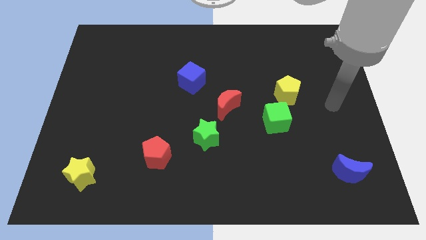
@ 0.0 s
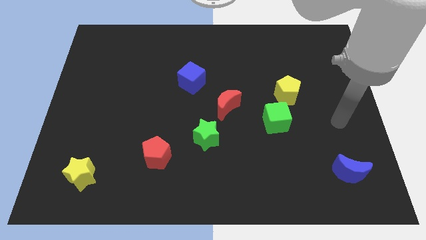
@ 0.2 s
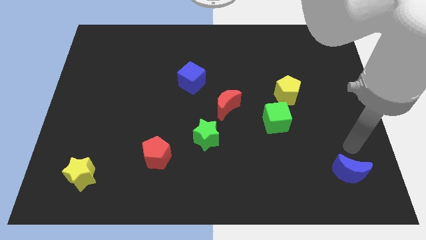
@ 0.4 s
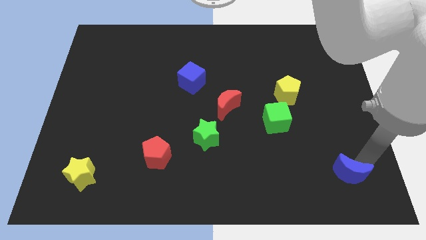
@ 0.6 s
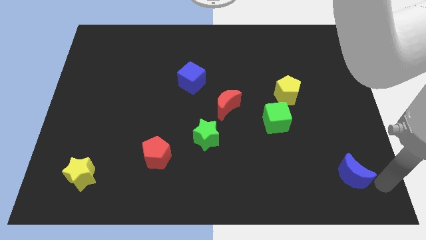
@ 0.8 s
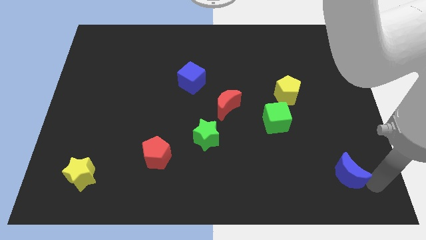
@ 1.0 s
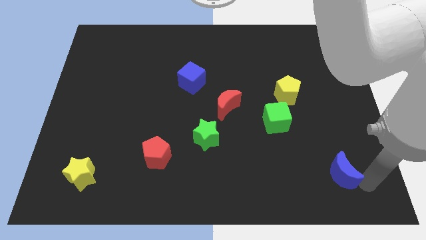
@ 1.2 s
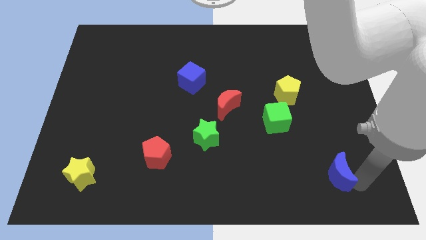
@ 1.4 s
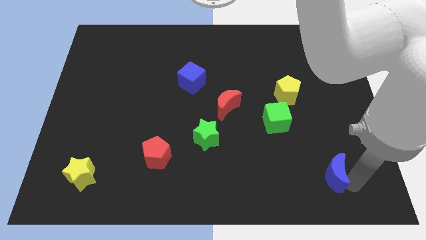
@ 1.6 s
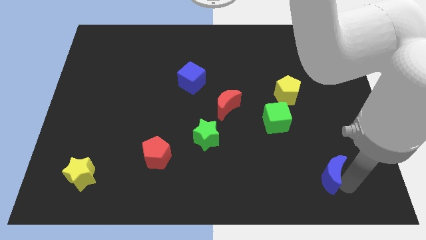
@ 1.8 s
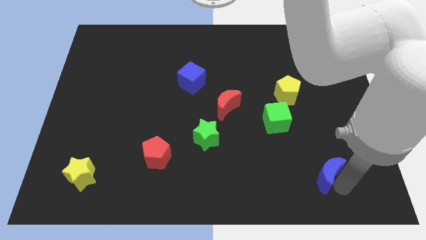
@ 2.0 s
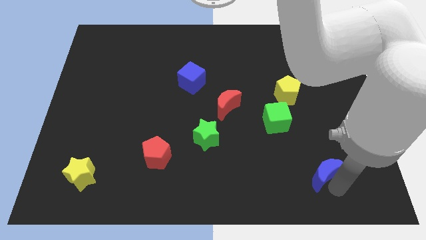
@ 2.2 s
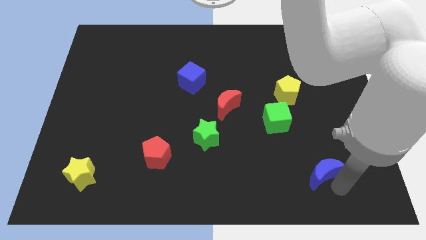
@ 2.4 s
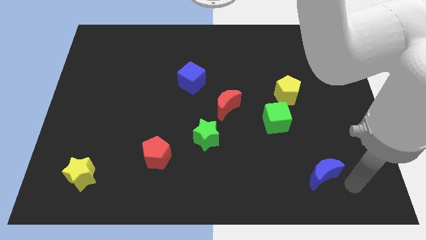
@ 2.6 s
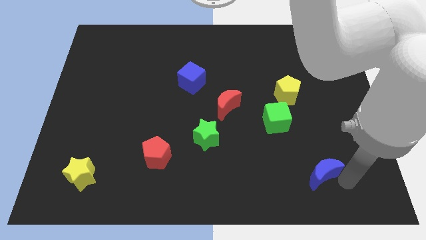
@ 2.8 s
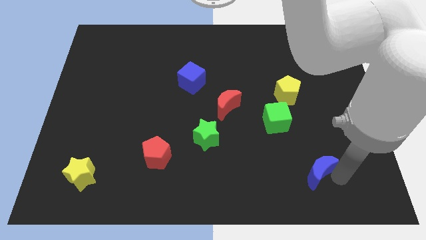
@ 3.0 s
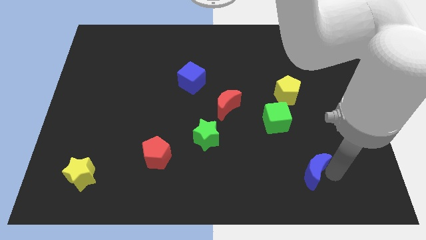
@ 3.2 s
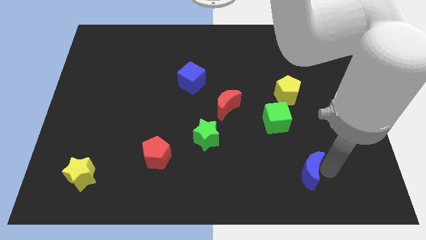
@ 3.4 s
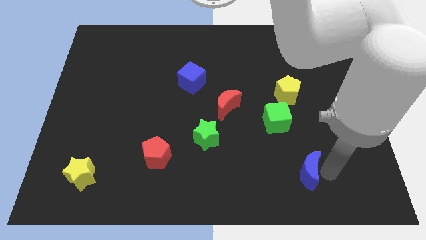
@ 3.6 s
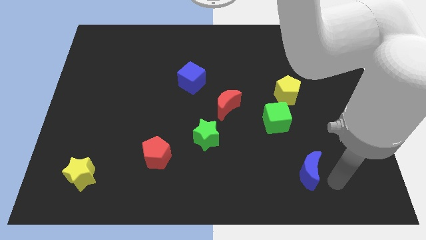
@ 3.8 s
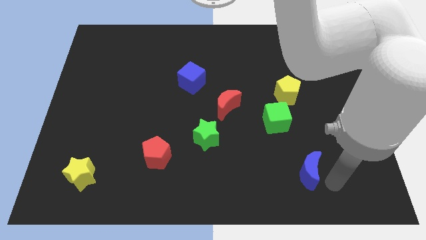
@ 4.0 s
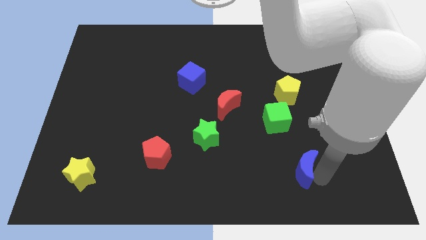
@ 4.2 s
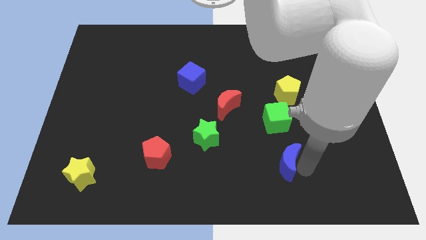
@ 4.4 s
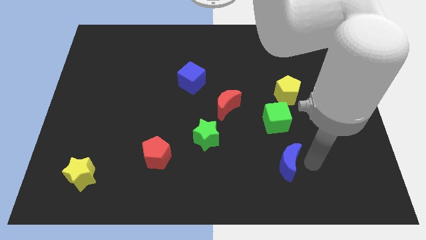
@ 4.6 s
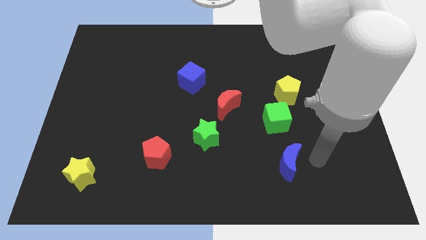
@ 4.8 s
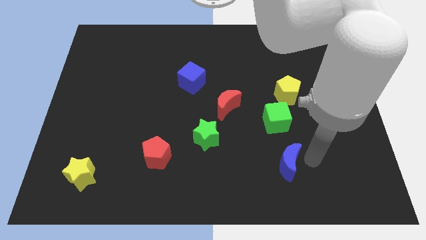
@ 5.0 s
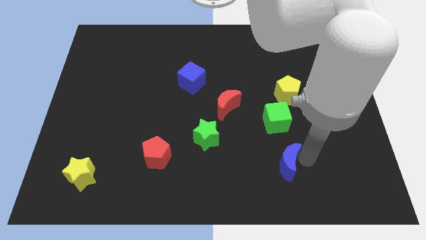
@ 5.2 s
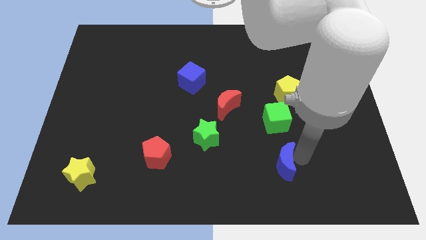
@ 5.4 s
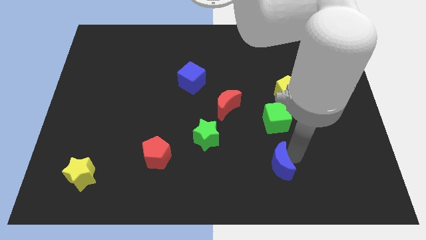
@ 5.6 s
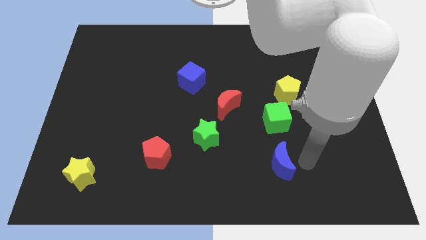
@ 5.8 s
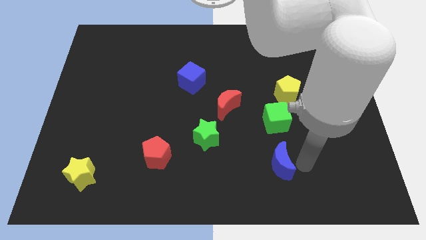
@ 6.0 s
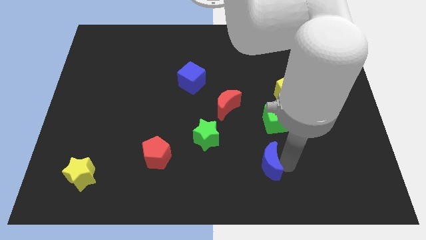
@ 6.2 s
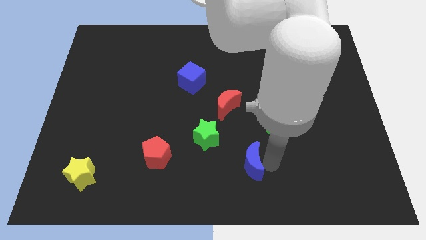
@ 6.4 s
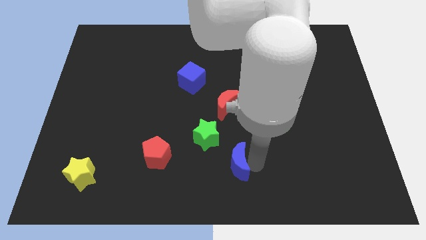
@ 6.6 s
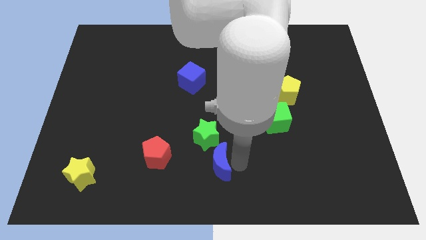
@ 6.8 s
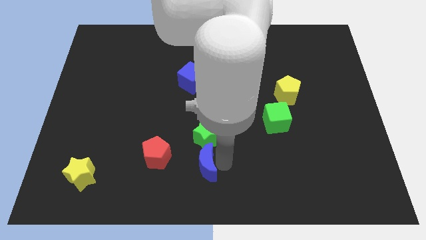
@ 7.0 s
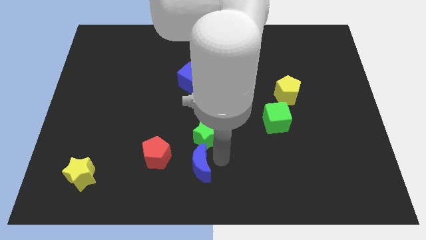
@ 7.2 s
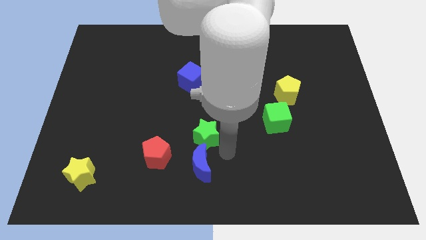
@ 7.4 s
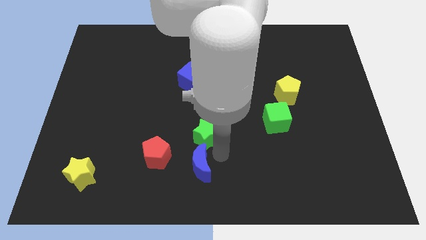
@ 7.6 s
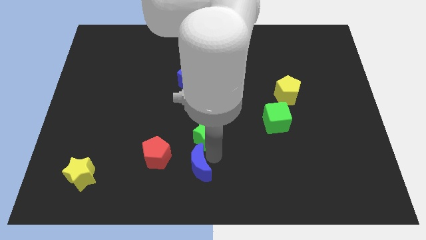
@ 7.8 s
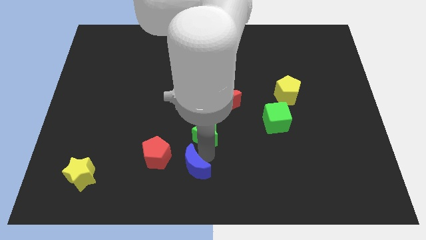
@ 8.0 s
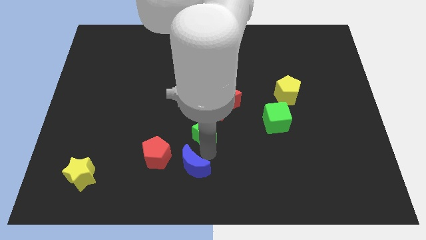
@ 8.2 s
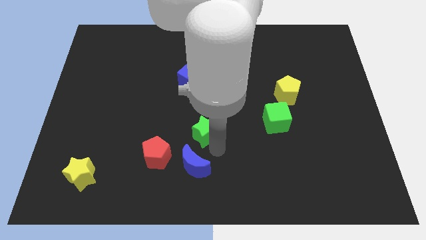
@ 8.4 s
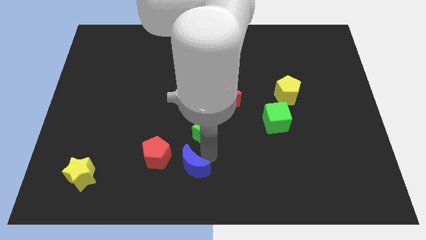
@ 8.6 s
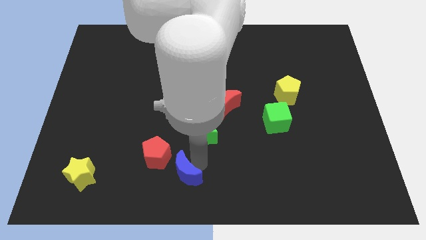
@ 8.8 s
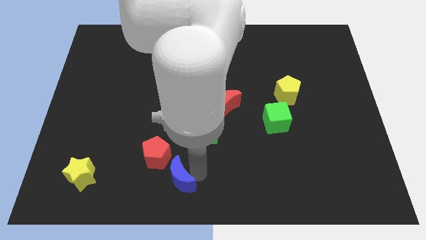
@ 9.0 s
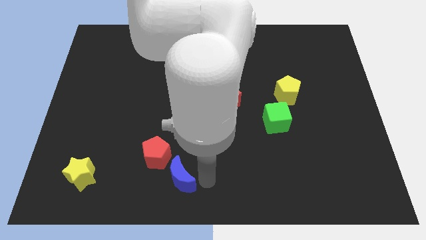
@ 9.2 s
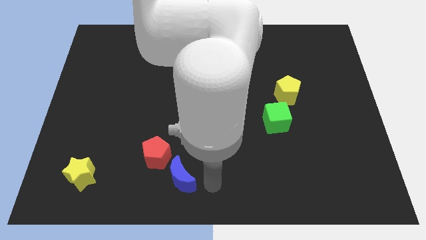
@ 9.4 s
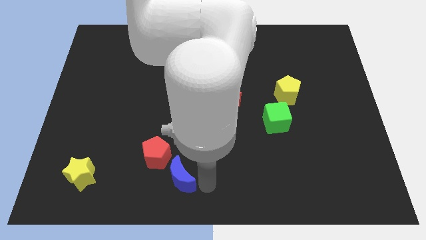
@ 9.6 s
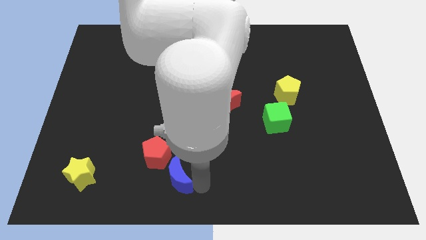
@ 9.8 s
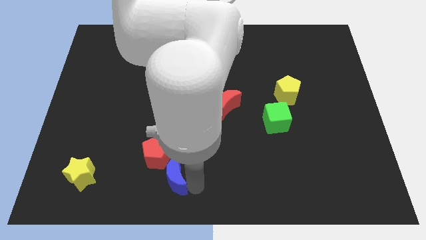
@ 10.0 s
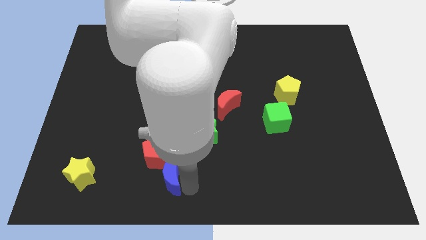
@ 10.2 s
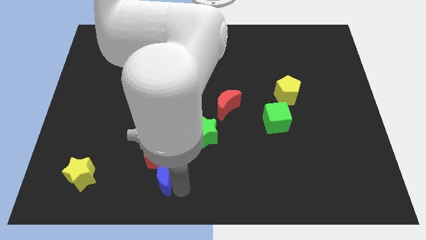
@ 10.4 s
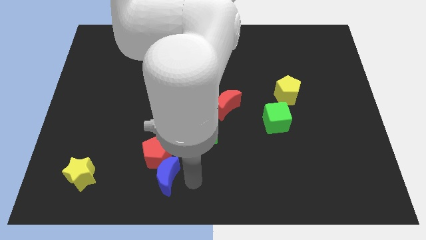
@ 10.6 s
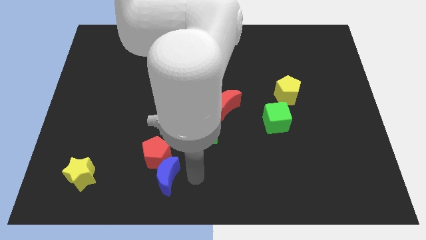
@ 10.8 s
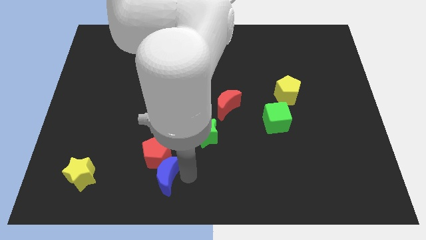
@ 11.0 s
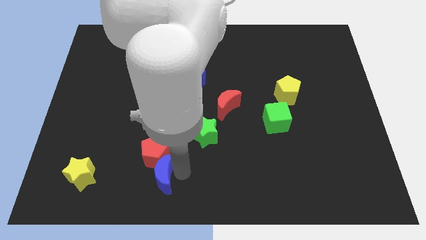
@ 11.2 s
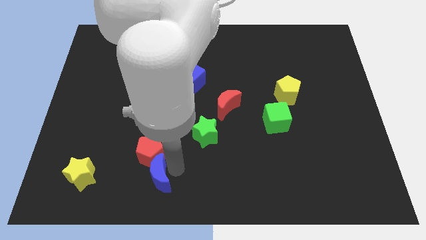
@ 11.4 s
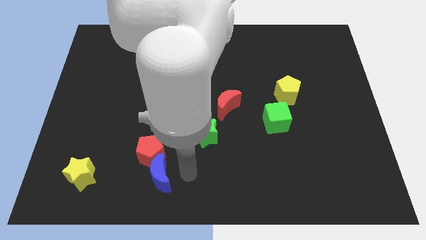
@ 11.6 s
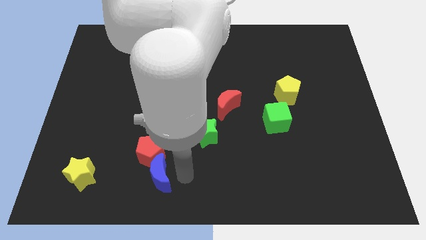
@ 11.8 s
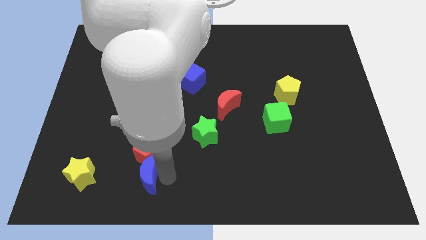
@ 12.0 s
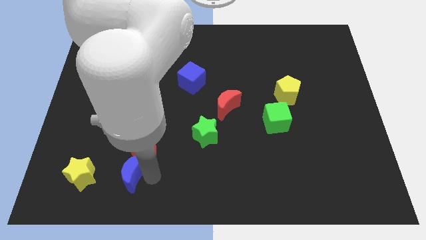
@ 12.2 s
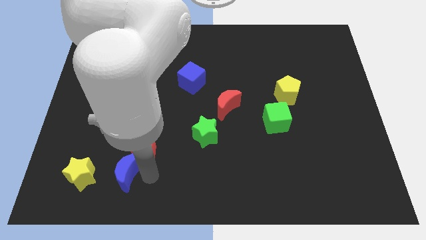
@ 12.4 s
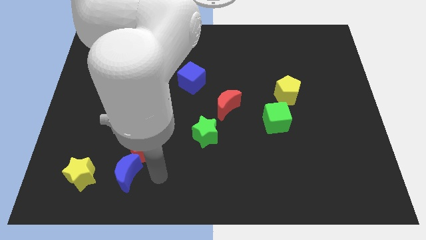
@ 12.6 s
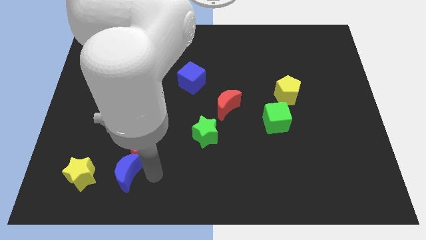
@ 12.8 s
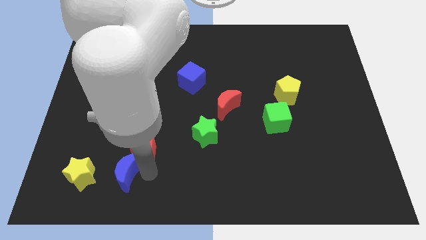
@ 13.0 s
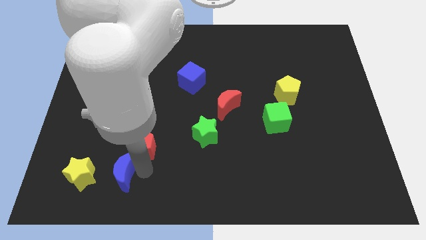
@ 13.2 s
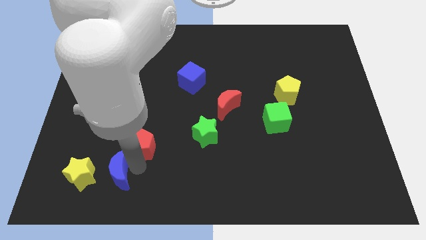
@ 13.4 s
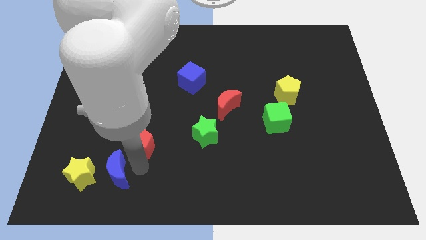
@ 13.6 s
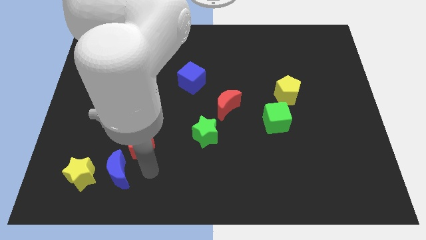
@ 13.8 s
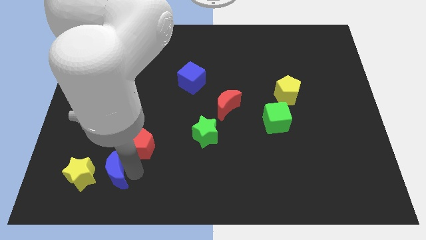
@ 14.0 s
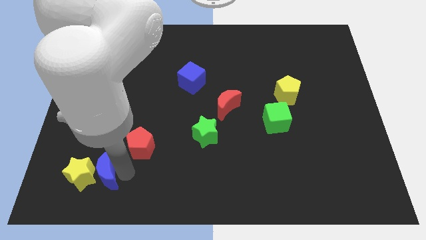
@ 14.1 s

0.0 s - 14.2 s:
push the blue moon next to the yellow star

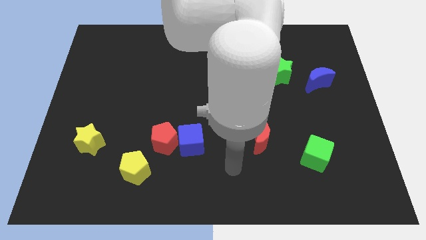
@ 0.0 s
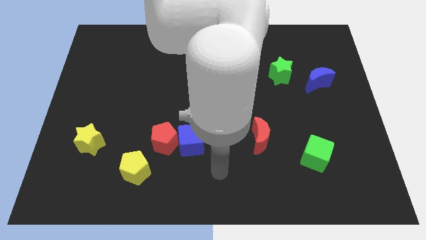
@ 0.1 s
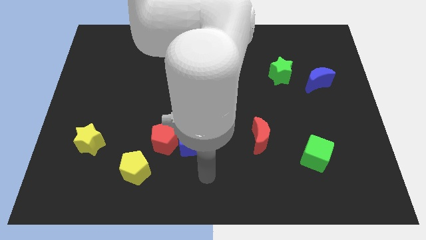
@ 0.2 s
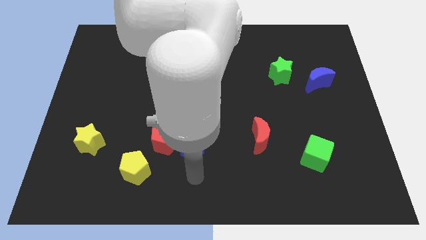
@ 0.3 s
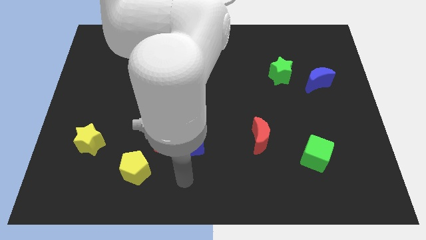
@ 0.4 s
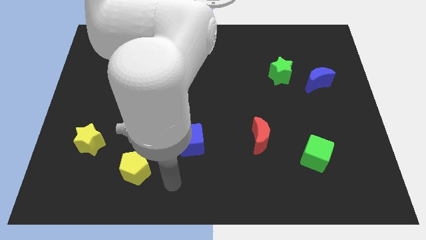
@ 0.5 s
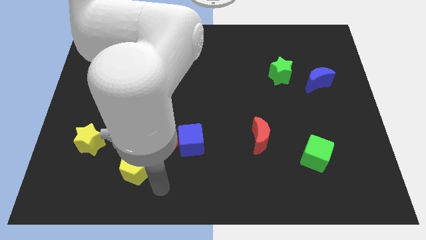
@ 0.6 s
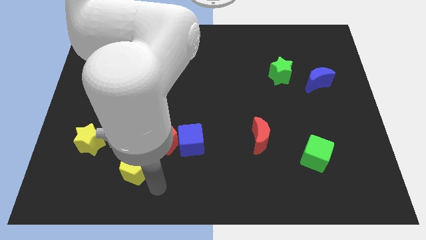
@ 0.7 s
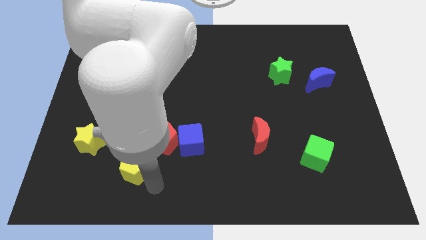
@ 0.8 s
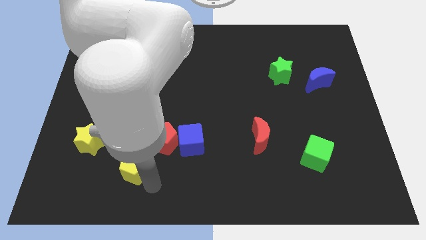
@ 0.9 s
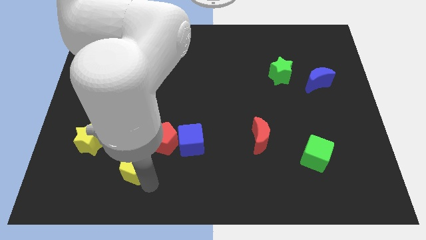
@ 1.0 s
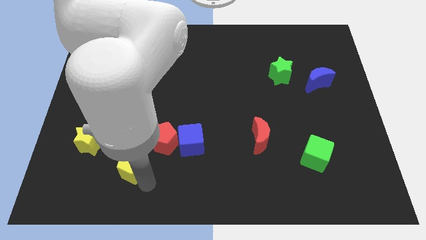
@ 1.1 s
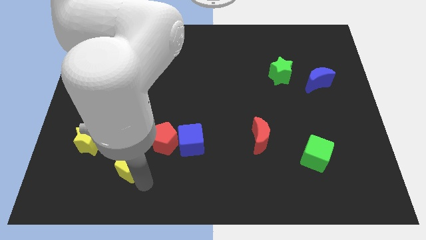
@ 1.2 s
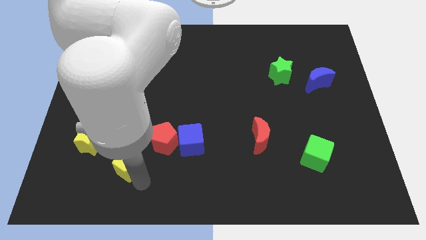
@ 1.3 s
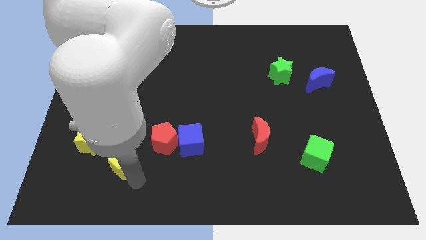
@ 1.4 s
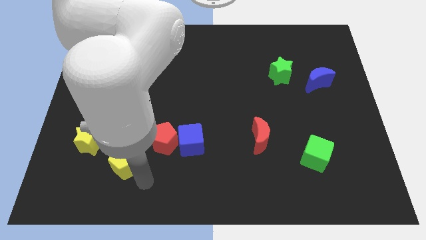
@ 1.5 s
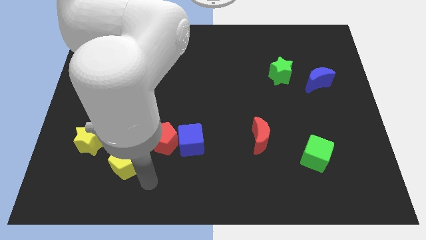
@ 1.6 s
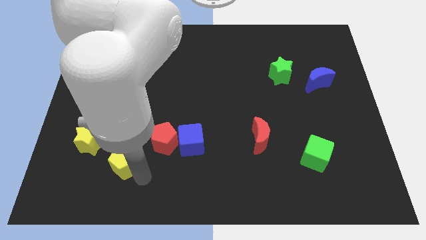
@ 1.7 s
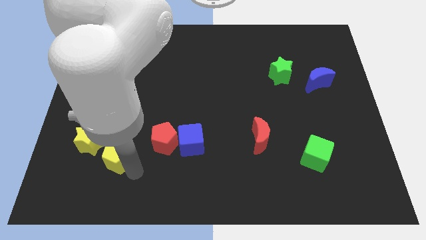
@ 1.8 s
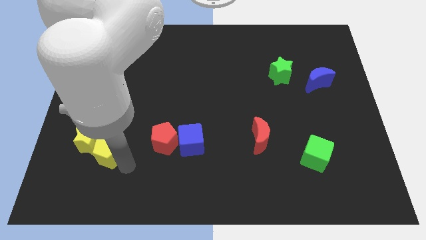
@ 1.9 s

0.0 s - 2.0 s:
push the yellow pentagon towards the yellow star
